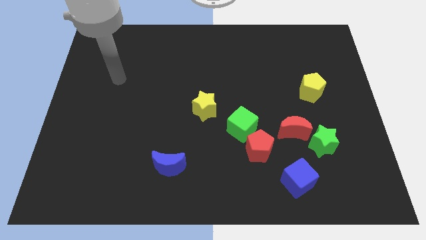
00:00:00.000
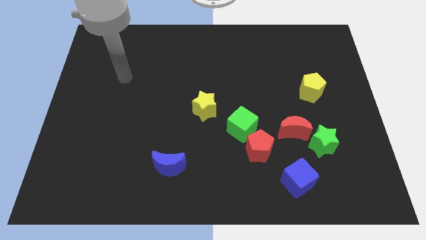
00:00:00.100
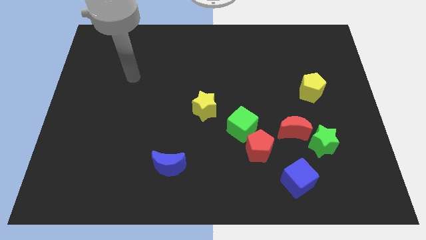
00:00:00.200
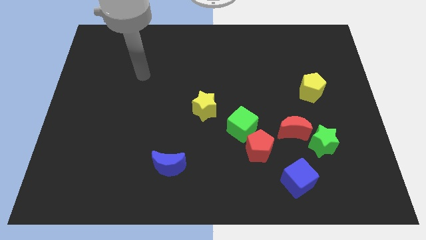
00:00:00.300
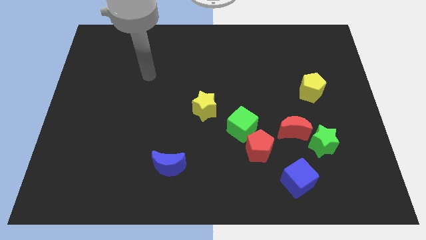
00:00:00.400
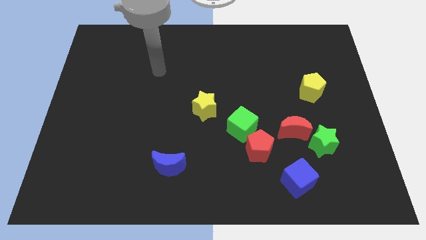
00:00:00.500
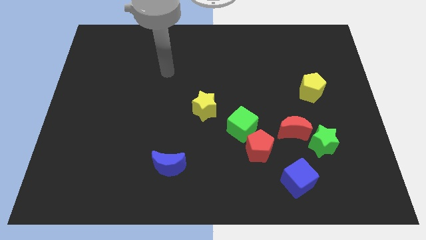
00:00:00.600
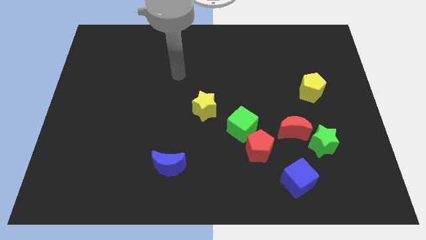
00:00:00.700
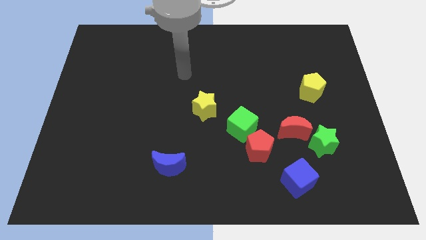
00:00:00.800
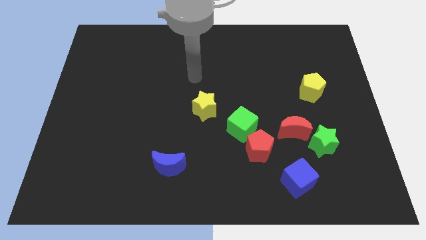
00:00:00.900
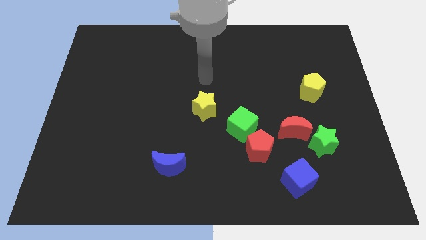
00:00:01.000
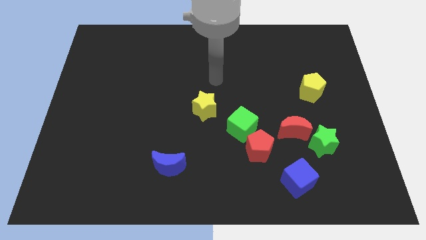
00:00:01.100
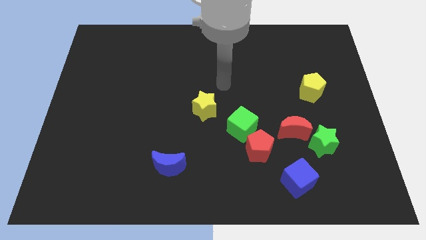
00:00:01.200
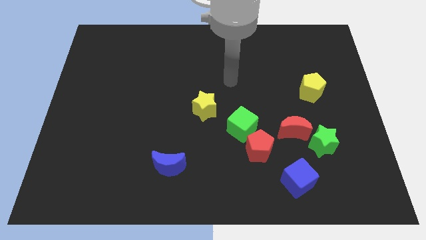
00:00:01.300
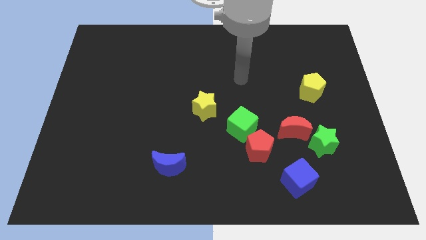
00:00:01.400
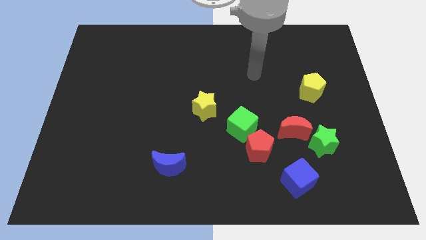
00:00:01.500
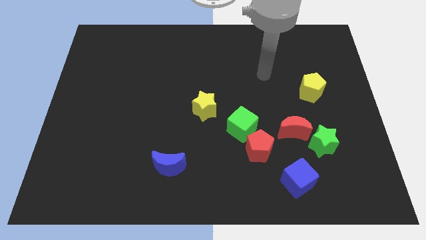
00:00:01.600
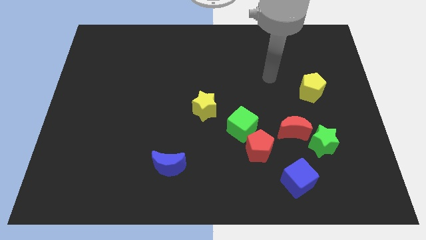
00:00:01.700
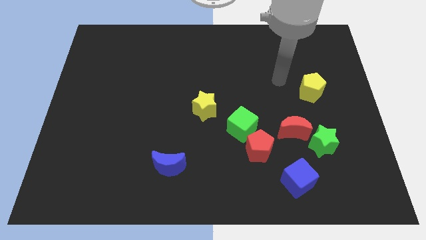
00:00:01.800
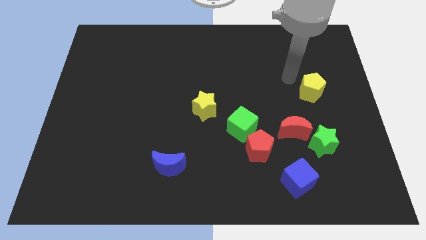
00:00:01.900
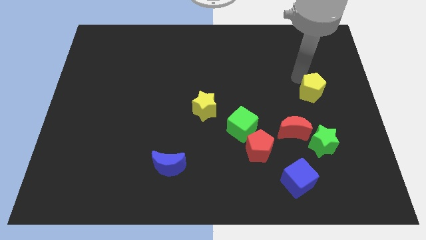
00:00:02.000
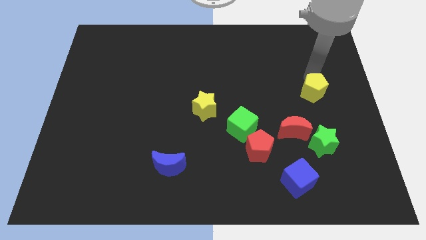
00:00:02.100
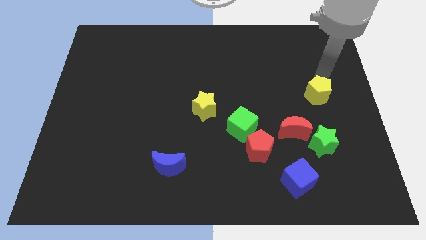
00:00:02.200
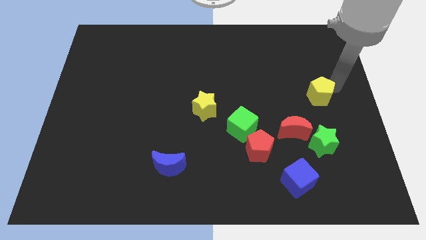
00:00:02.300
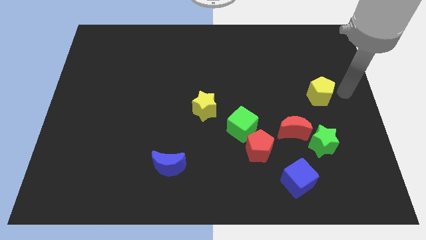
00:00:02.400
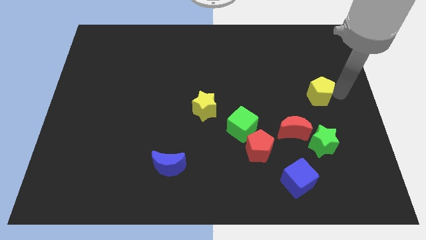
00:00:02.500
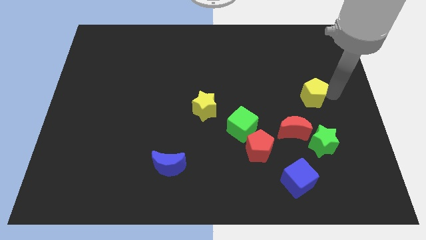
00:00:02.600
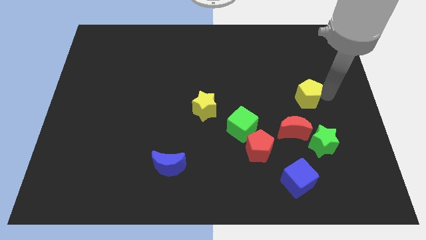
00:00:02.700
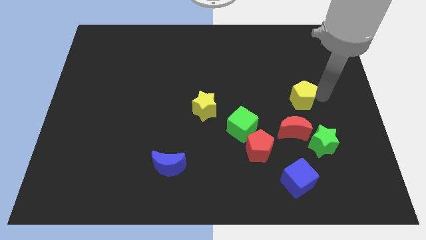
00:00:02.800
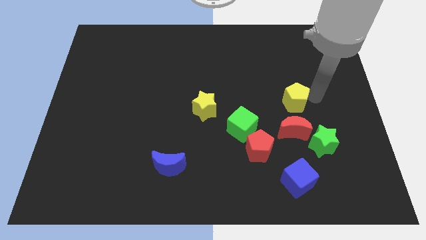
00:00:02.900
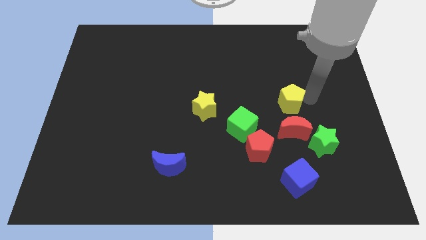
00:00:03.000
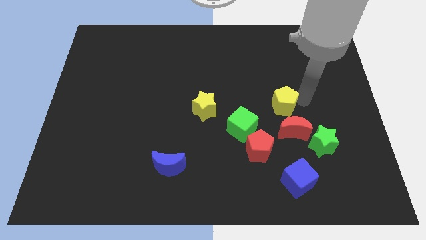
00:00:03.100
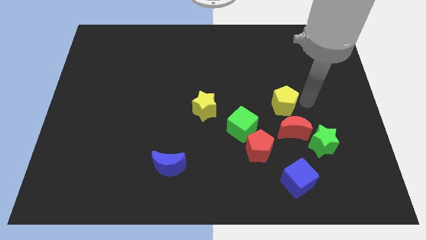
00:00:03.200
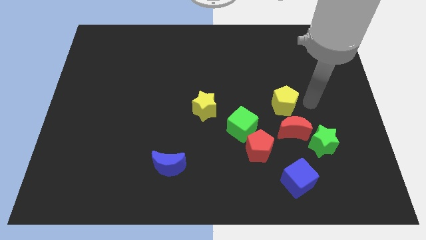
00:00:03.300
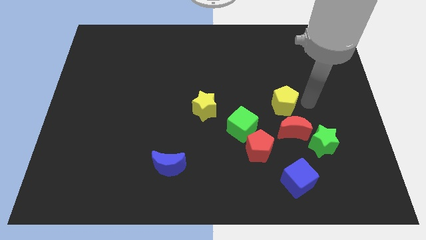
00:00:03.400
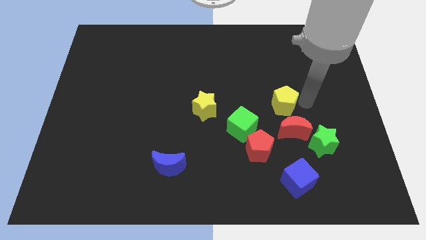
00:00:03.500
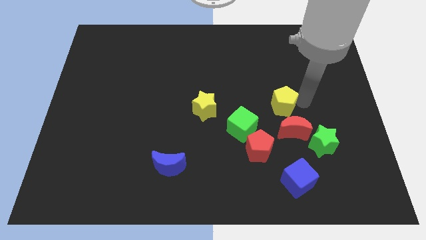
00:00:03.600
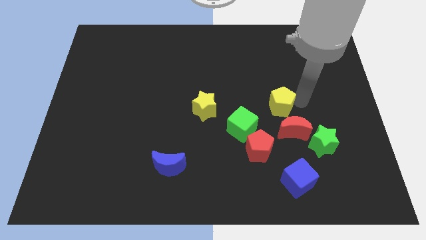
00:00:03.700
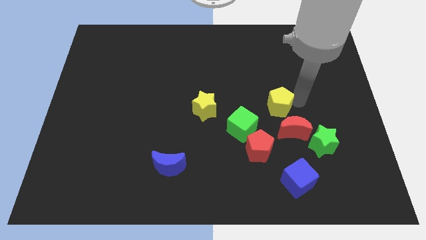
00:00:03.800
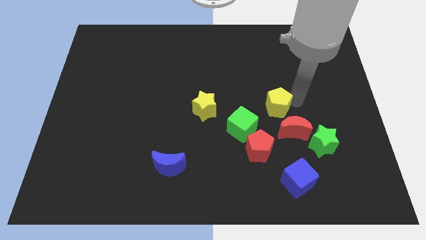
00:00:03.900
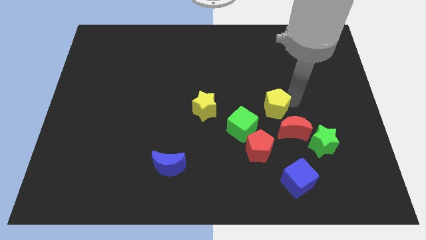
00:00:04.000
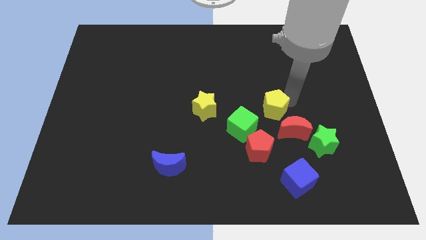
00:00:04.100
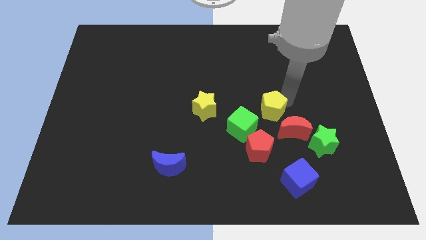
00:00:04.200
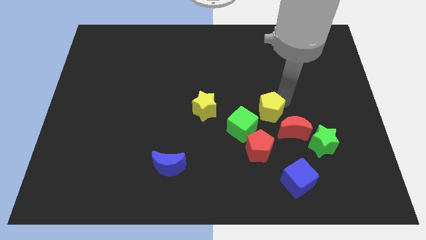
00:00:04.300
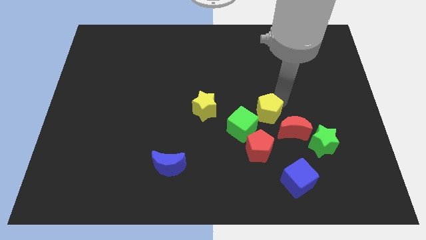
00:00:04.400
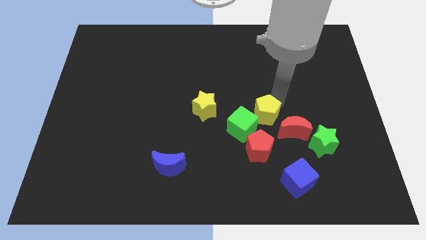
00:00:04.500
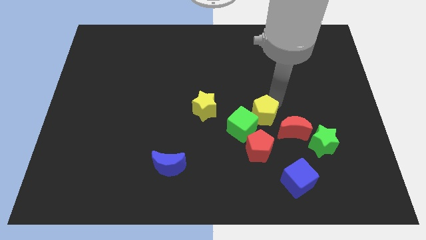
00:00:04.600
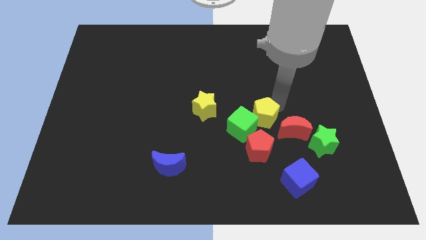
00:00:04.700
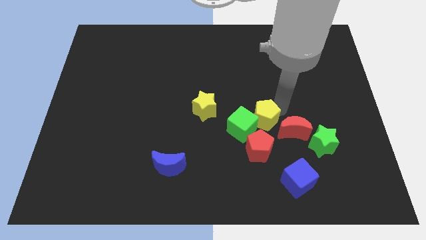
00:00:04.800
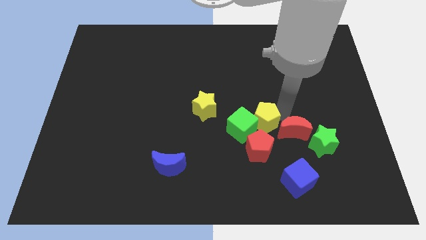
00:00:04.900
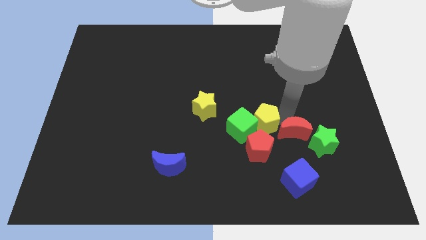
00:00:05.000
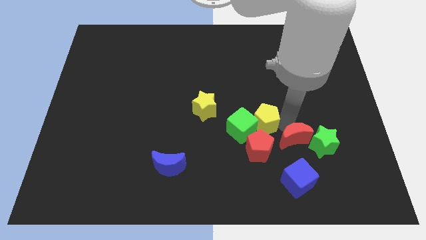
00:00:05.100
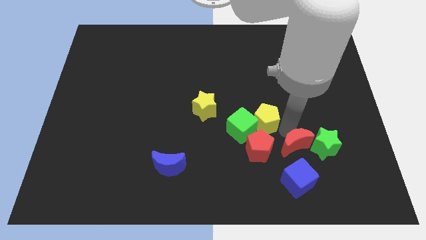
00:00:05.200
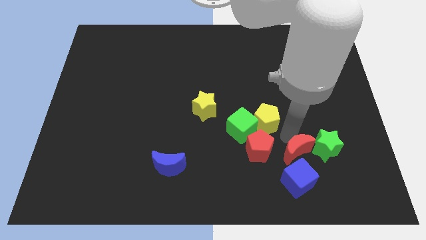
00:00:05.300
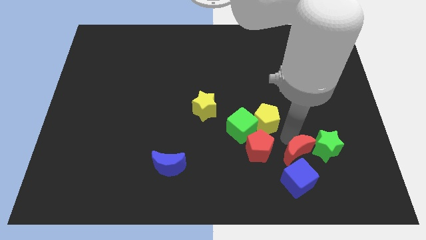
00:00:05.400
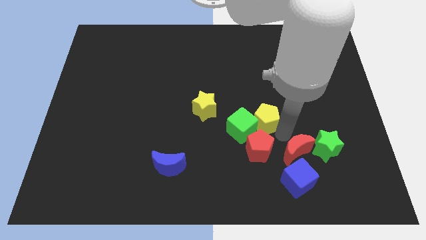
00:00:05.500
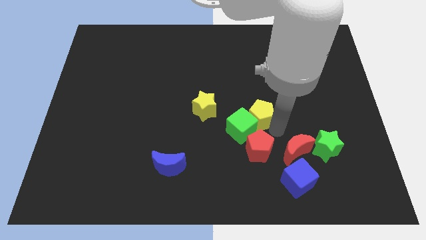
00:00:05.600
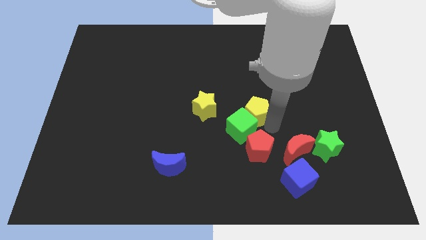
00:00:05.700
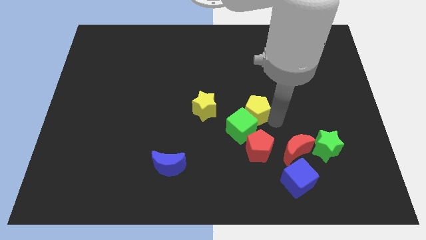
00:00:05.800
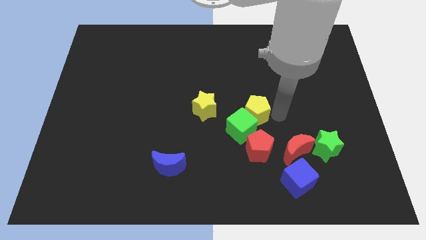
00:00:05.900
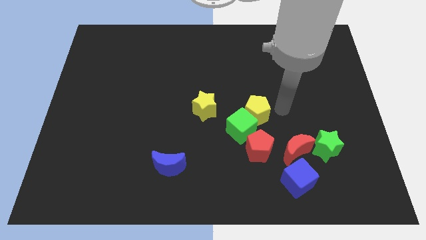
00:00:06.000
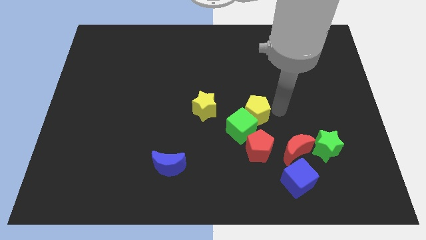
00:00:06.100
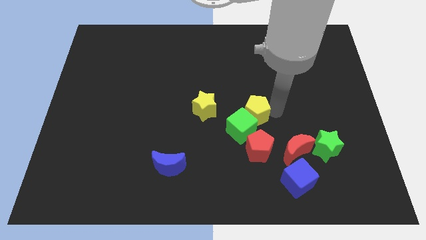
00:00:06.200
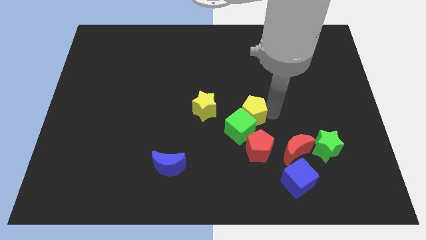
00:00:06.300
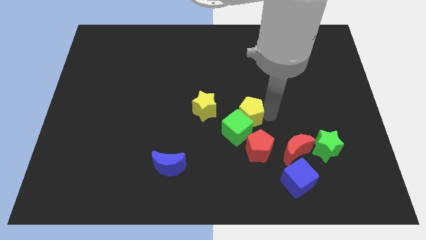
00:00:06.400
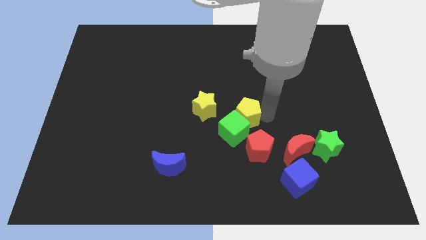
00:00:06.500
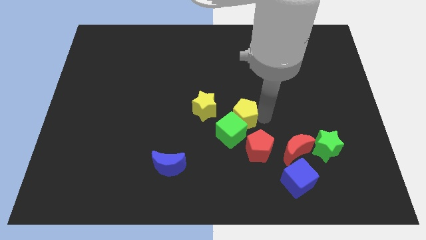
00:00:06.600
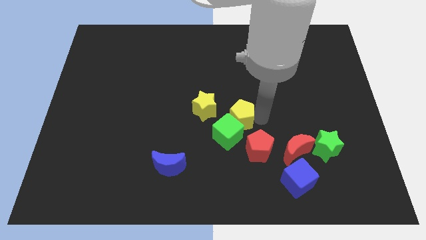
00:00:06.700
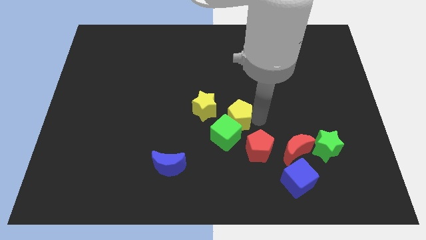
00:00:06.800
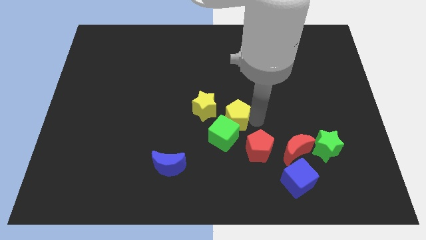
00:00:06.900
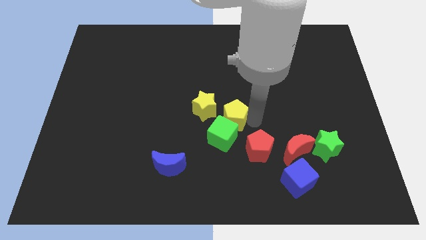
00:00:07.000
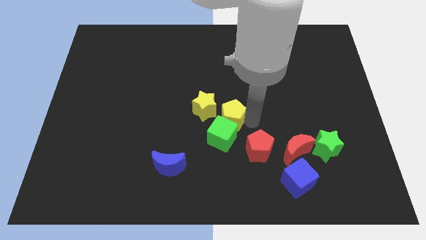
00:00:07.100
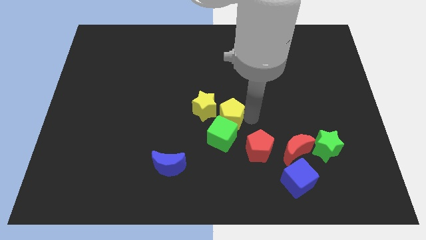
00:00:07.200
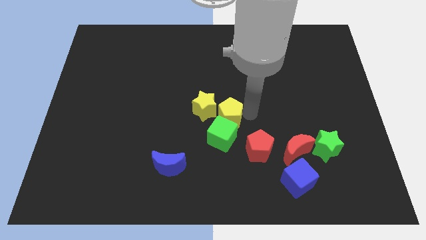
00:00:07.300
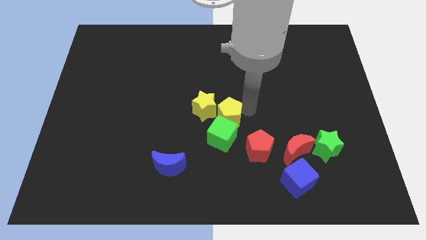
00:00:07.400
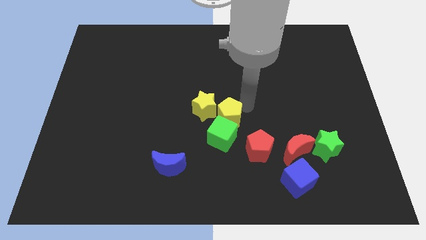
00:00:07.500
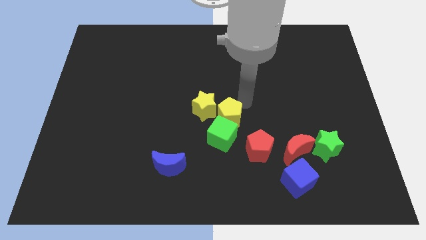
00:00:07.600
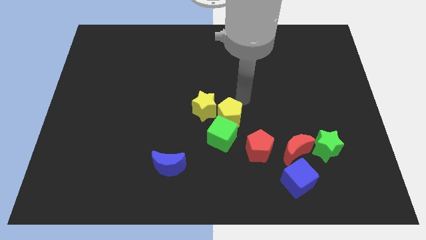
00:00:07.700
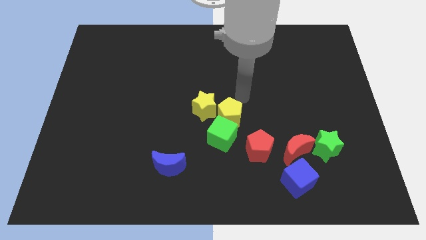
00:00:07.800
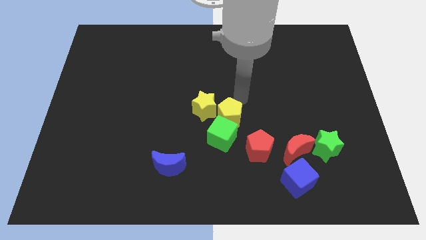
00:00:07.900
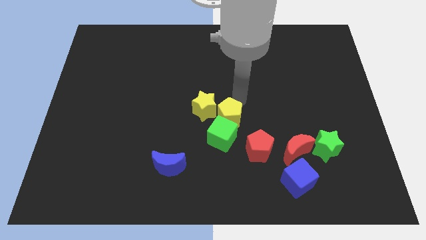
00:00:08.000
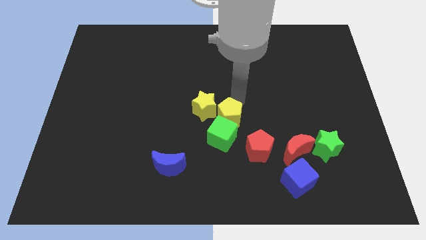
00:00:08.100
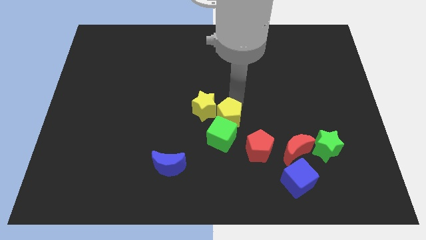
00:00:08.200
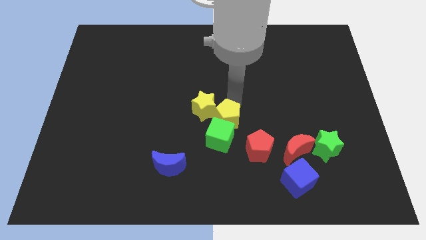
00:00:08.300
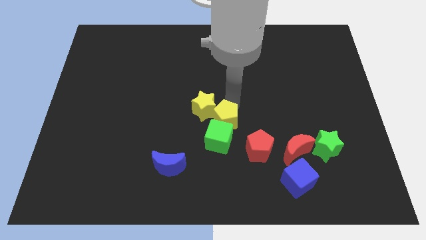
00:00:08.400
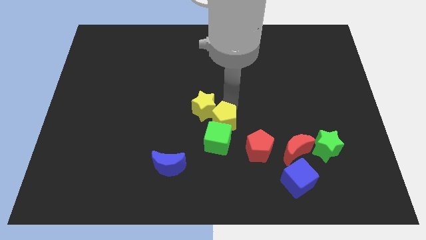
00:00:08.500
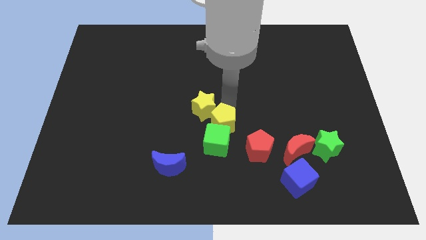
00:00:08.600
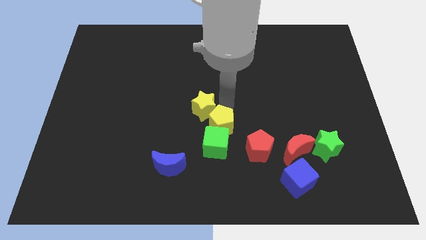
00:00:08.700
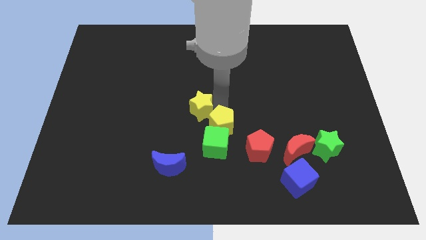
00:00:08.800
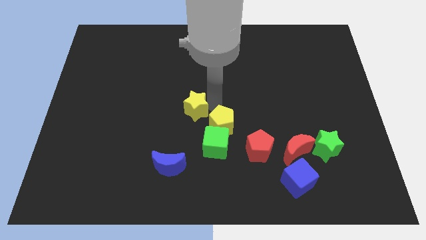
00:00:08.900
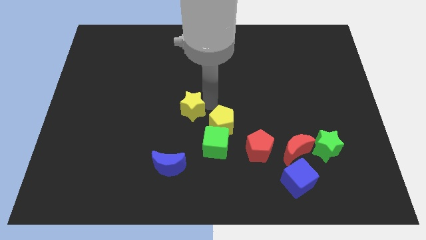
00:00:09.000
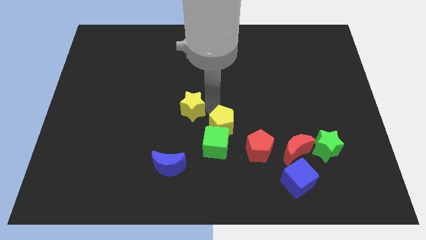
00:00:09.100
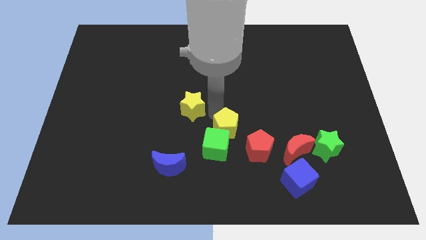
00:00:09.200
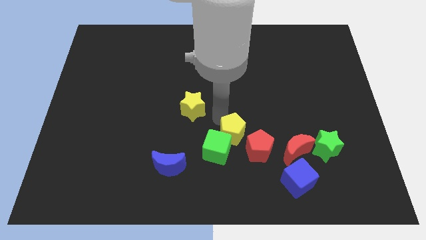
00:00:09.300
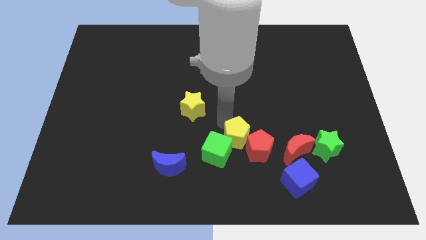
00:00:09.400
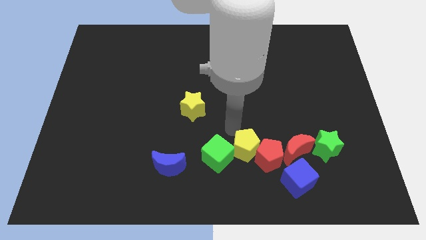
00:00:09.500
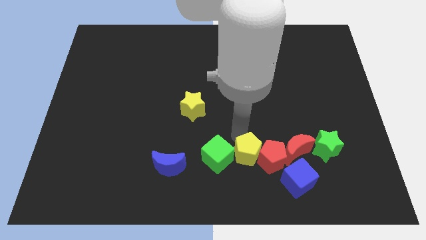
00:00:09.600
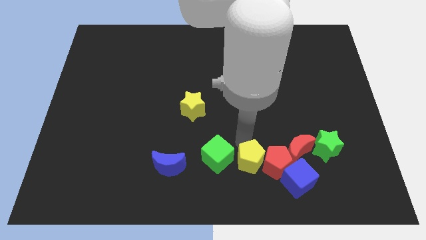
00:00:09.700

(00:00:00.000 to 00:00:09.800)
move the yellow pentagon to the left side of the blue cube
